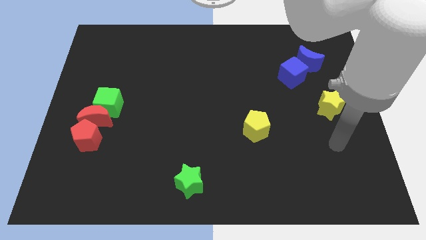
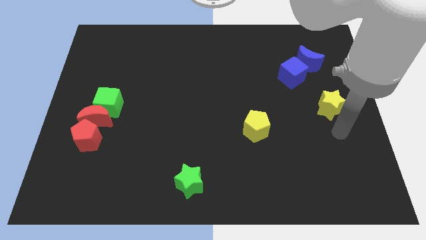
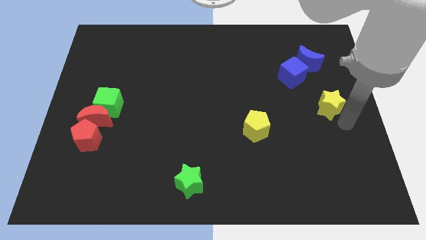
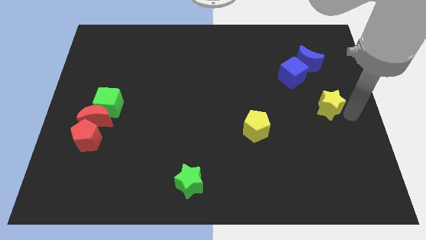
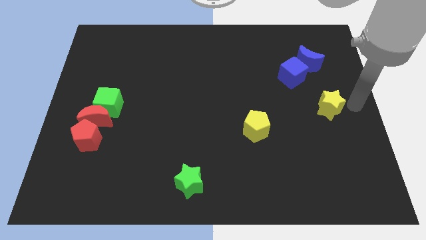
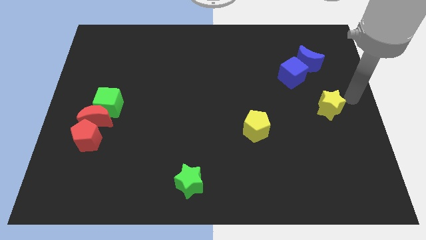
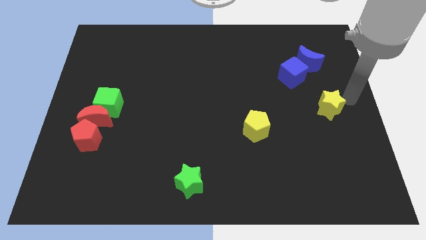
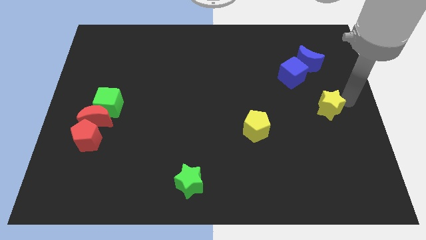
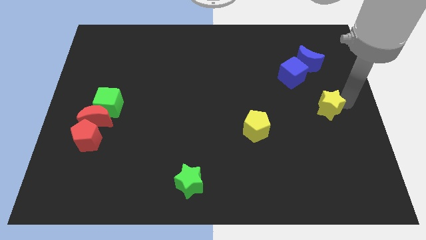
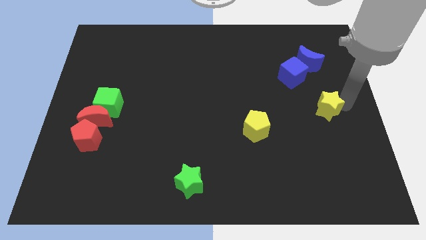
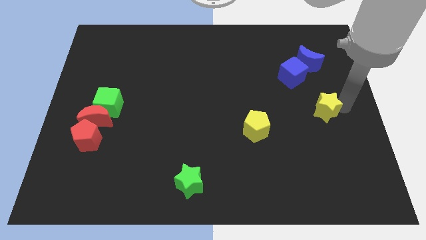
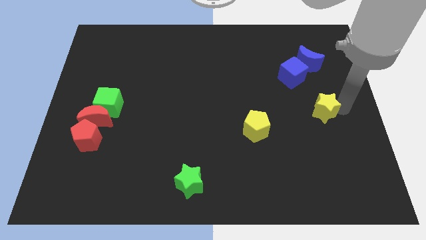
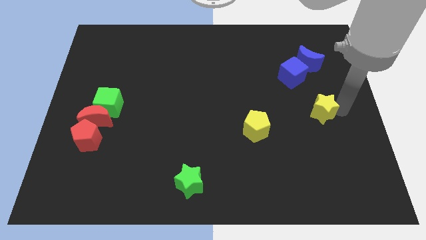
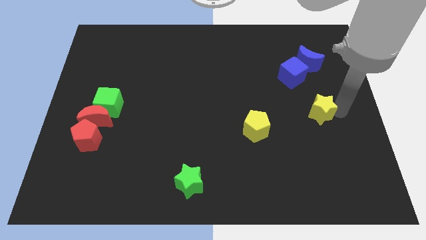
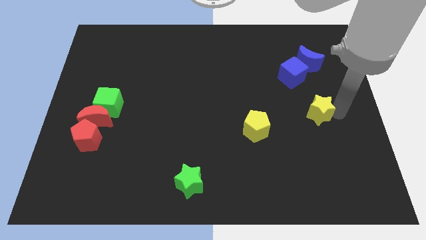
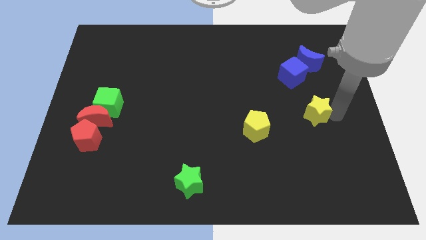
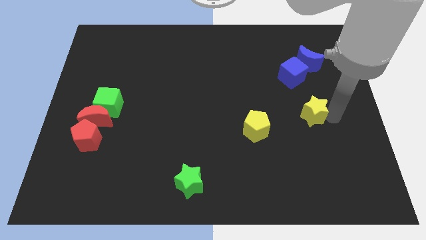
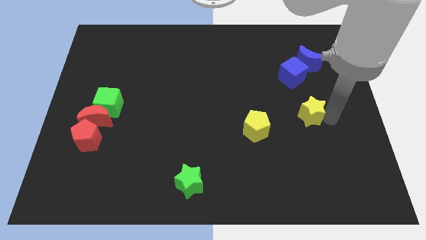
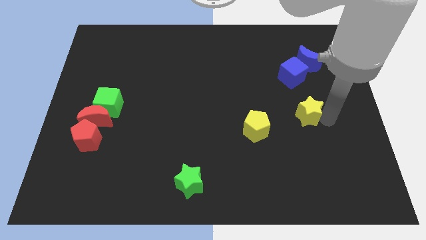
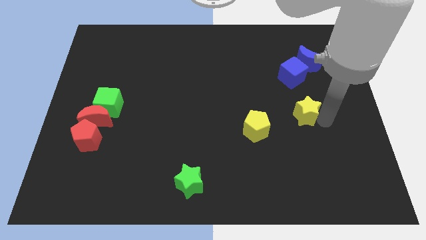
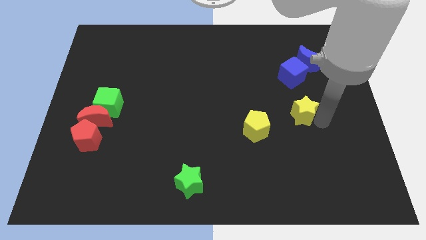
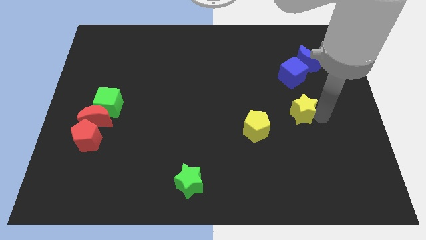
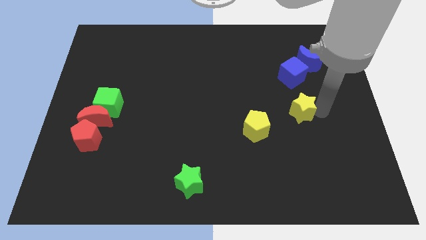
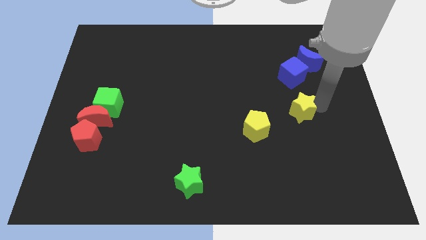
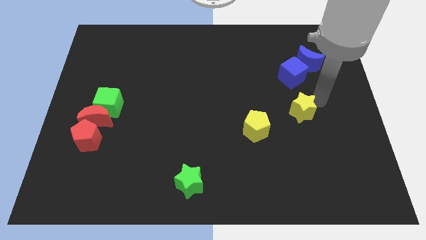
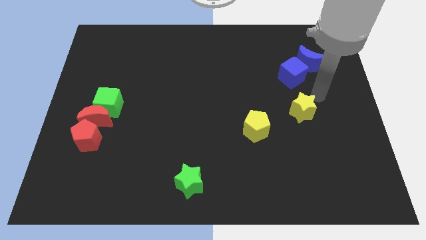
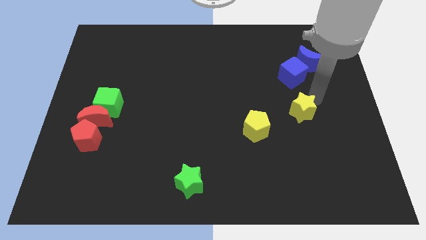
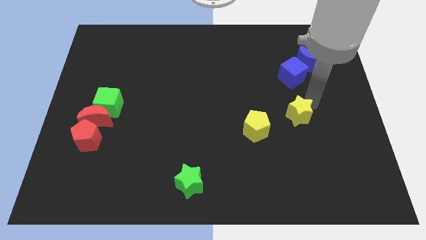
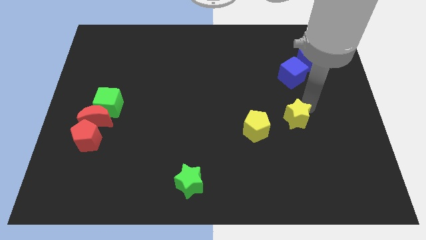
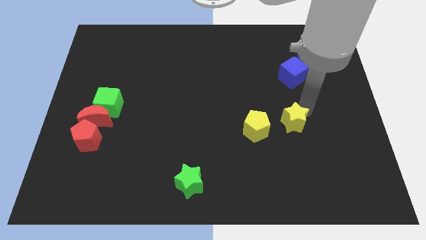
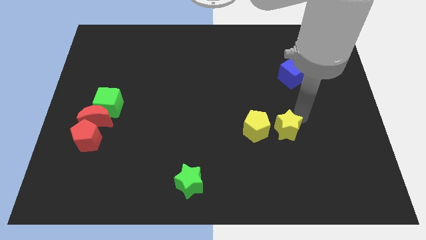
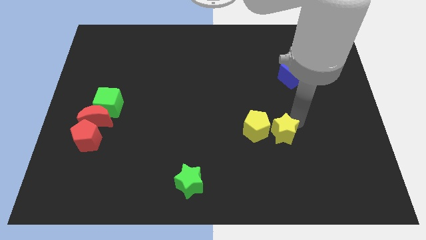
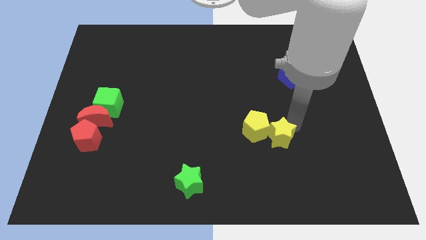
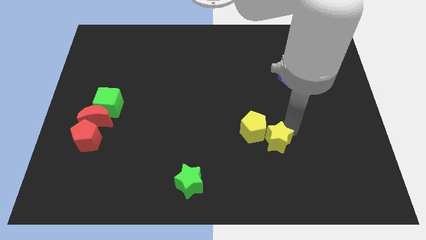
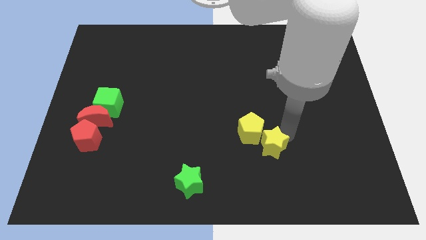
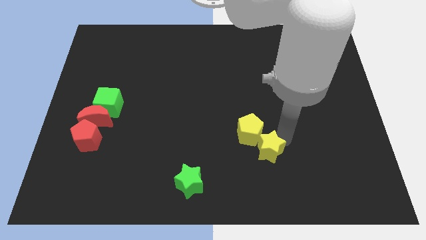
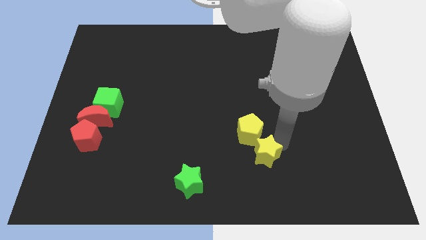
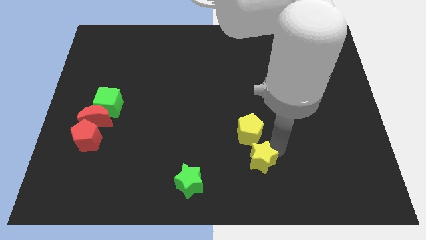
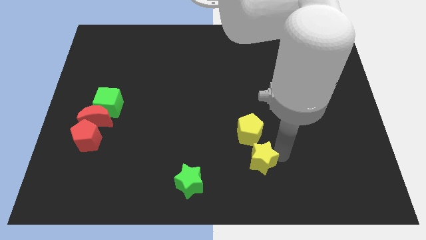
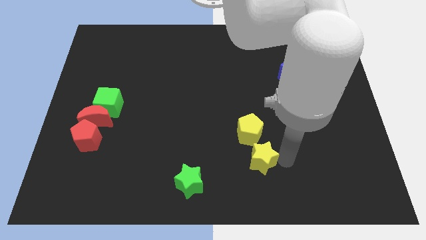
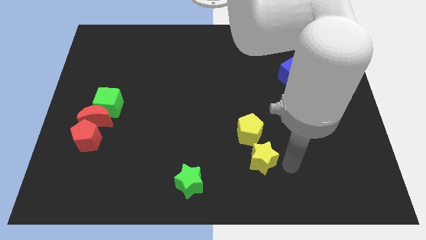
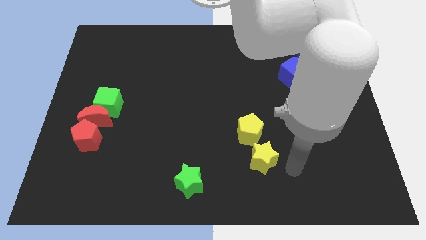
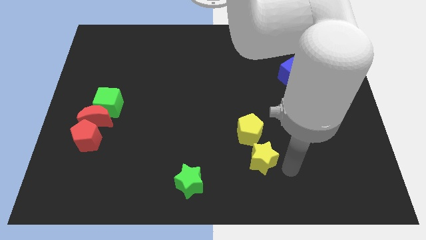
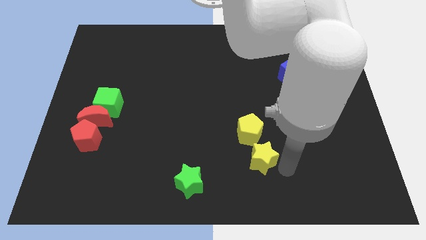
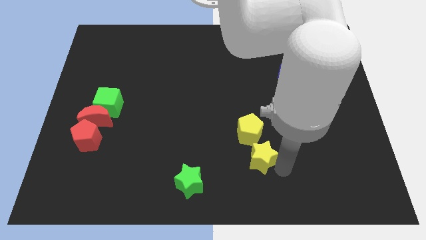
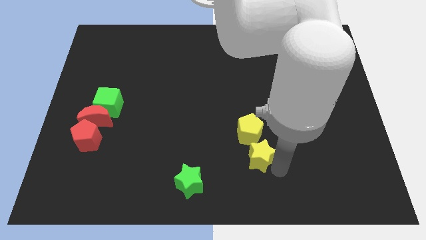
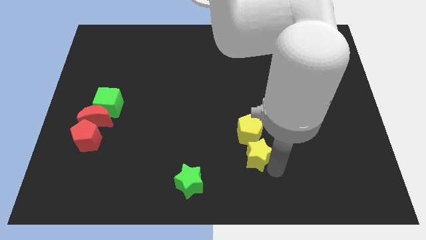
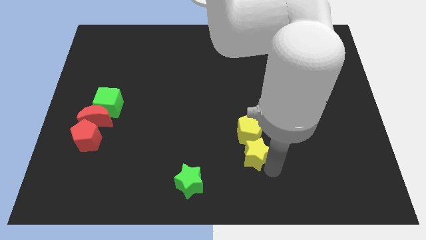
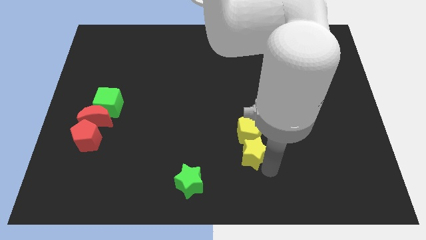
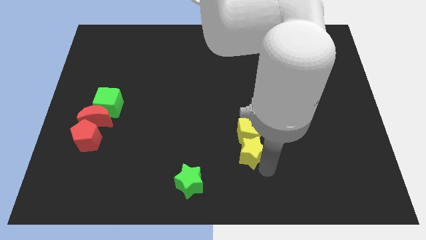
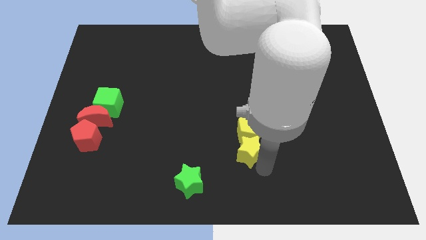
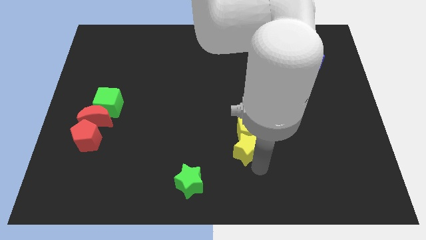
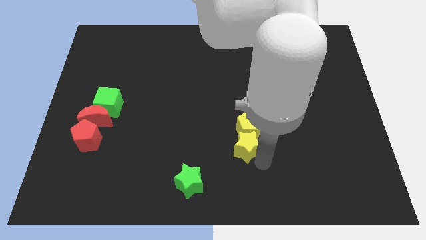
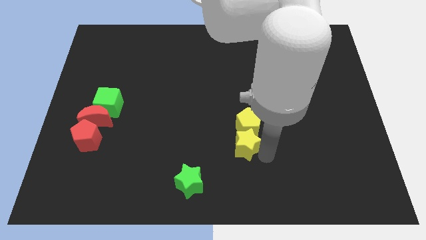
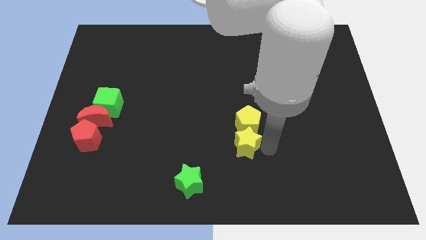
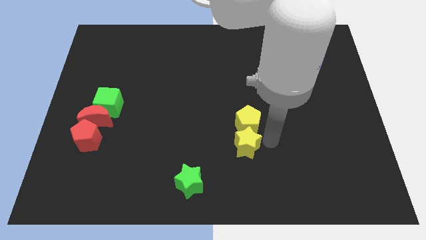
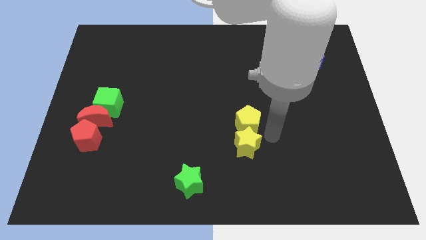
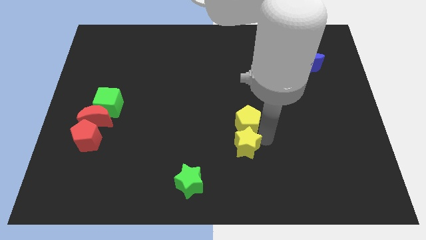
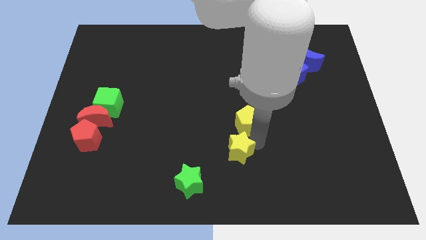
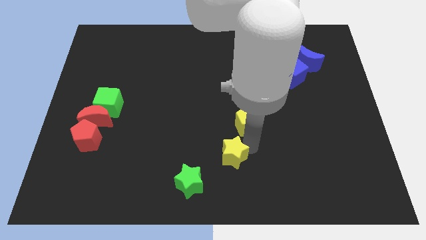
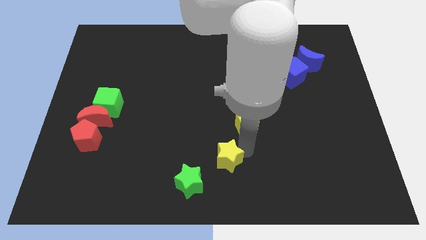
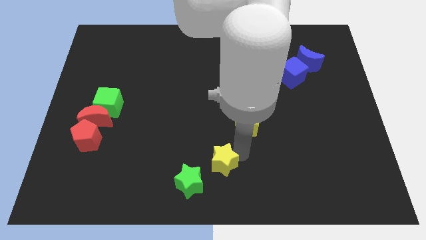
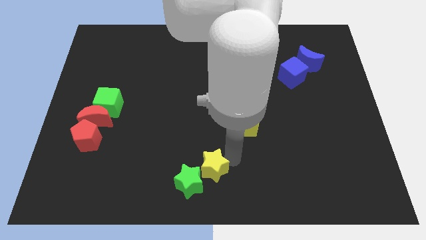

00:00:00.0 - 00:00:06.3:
push the yellow star to the green star
